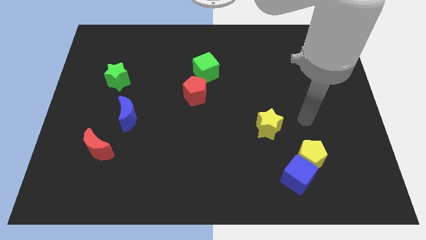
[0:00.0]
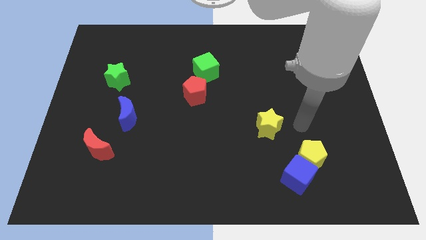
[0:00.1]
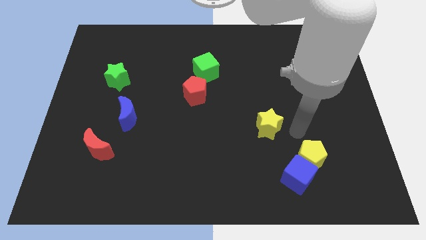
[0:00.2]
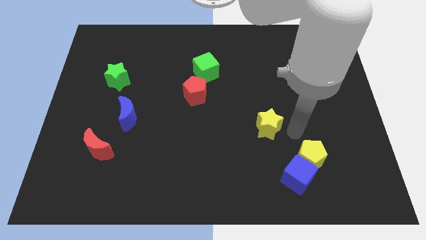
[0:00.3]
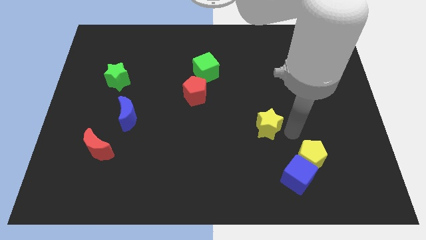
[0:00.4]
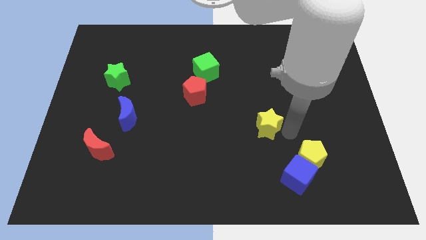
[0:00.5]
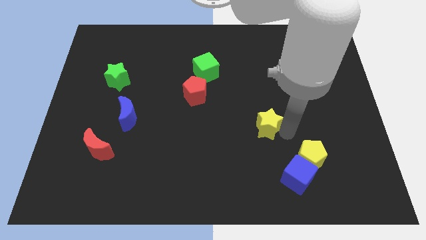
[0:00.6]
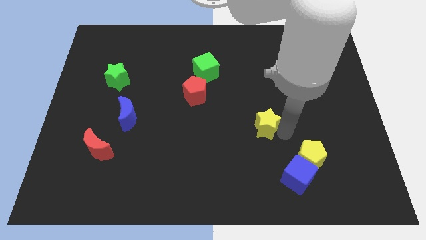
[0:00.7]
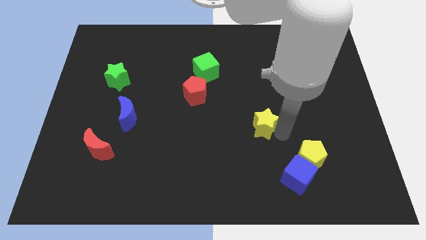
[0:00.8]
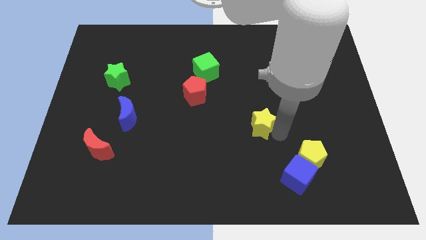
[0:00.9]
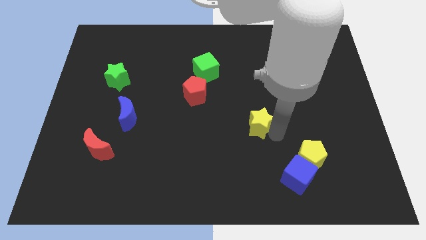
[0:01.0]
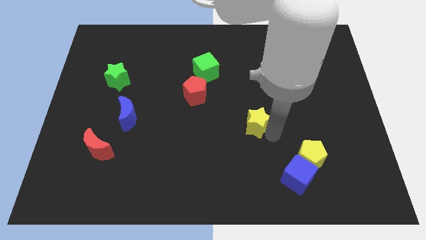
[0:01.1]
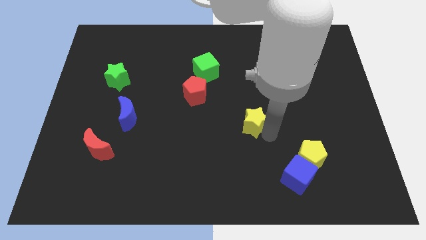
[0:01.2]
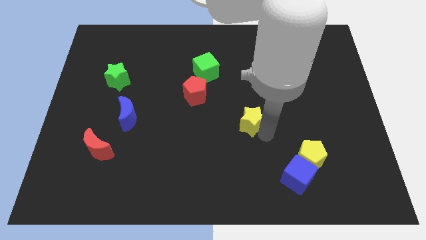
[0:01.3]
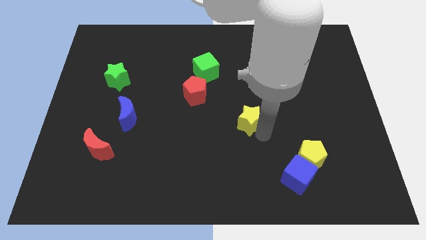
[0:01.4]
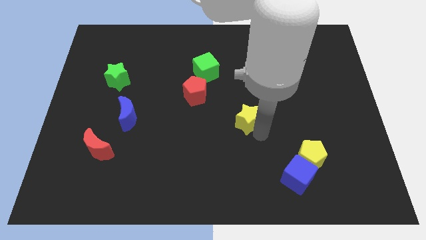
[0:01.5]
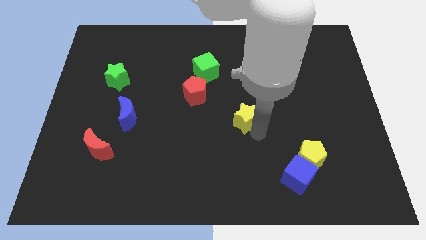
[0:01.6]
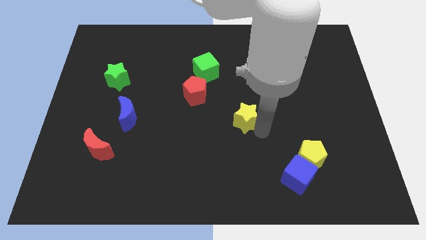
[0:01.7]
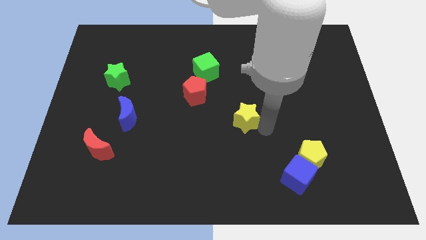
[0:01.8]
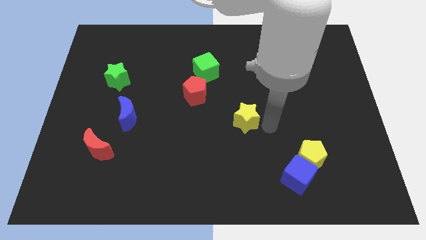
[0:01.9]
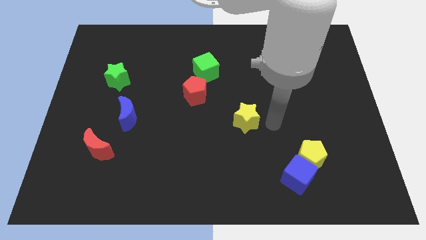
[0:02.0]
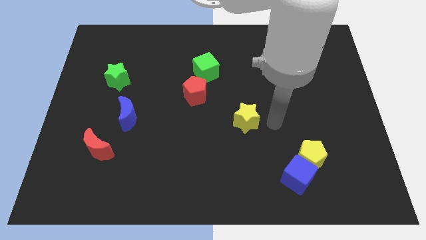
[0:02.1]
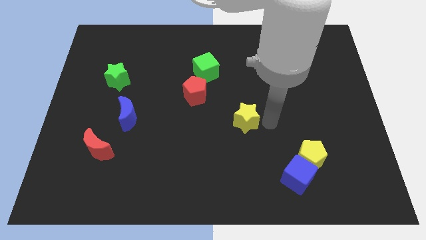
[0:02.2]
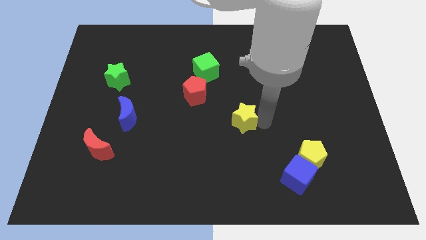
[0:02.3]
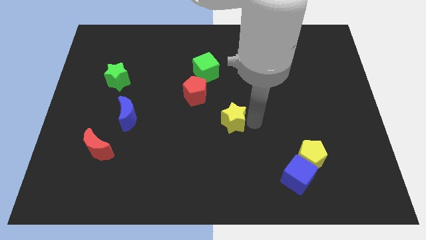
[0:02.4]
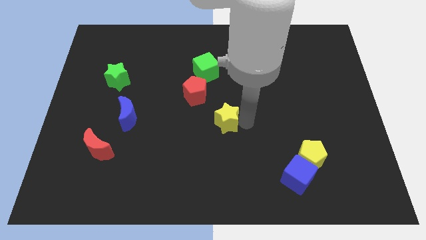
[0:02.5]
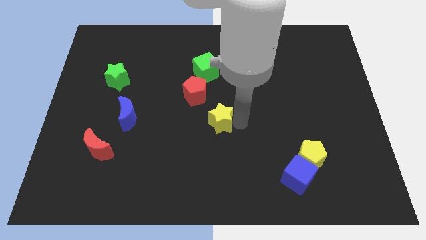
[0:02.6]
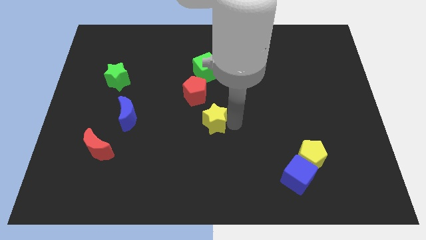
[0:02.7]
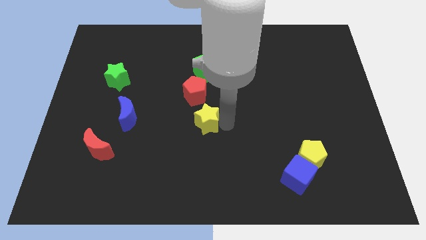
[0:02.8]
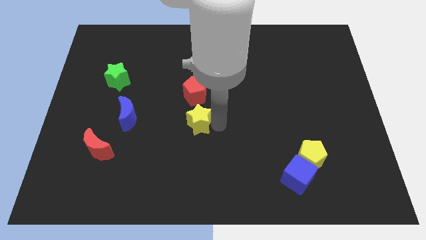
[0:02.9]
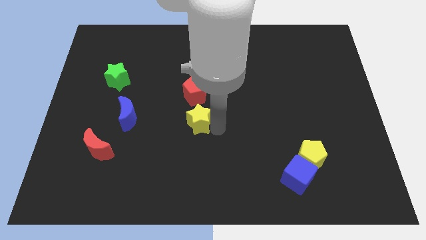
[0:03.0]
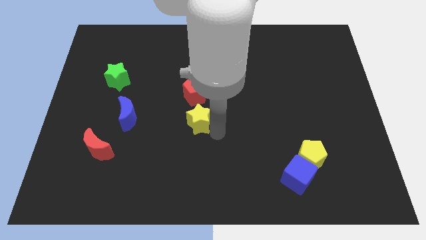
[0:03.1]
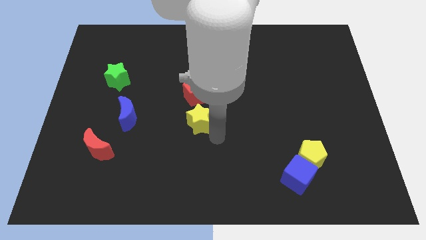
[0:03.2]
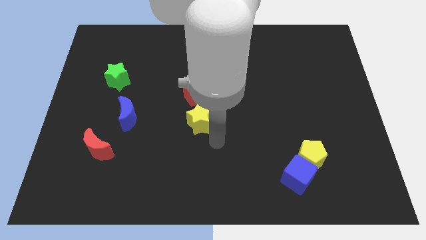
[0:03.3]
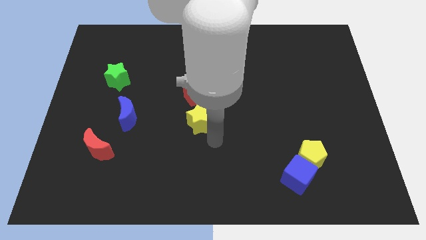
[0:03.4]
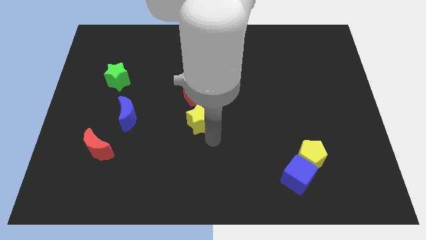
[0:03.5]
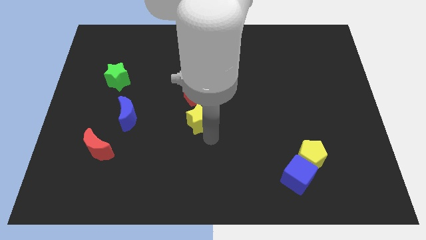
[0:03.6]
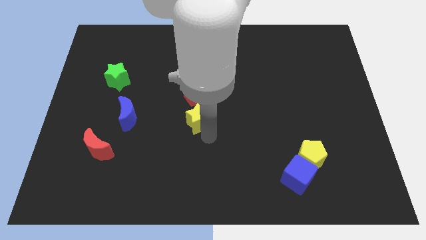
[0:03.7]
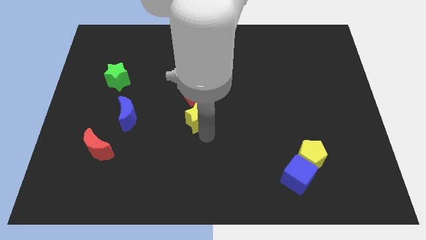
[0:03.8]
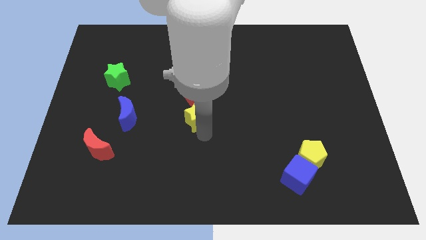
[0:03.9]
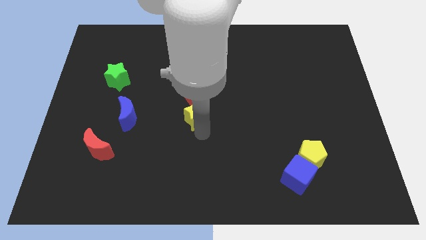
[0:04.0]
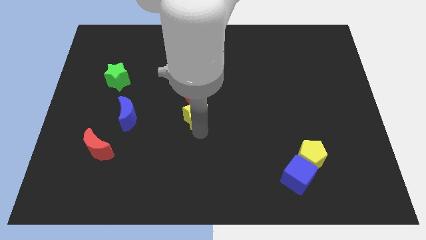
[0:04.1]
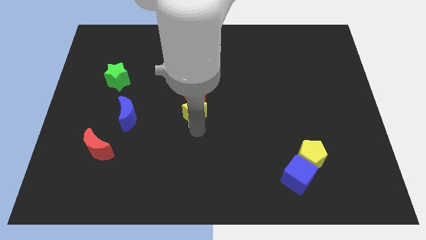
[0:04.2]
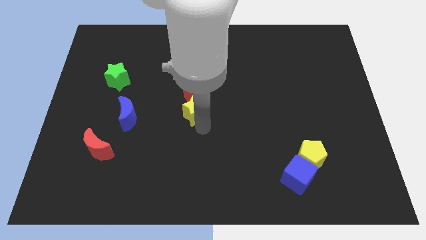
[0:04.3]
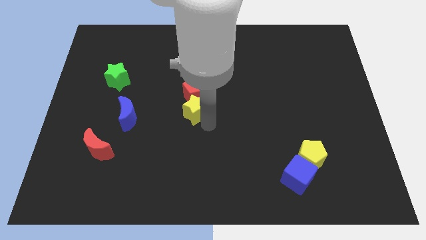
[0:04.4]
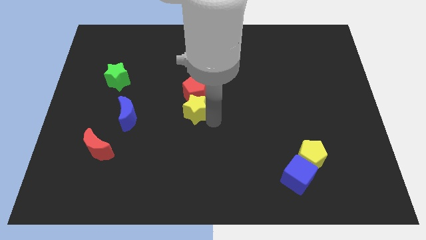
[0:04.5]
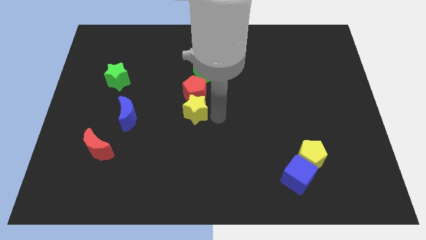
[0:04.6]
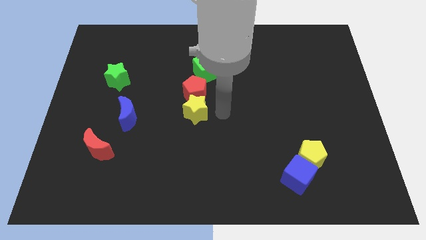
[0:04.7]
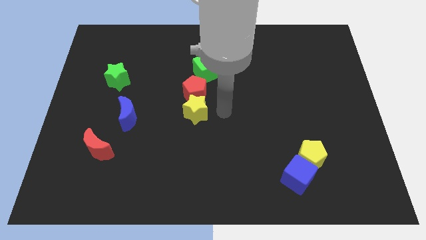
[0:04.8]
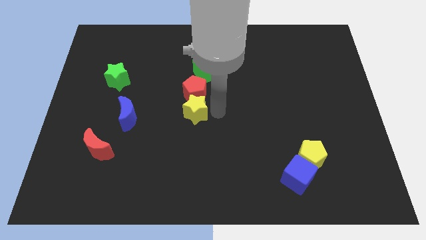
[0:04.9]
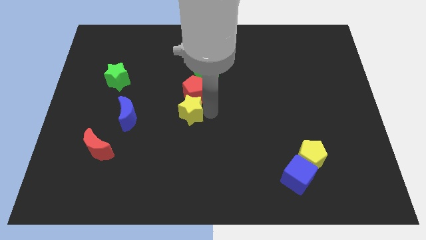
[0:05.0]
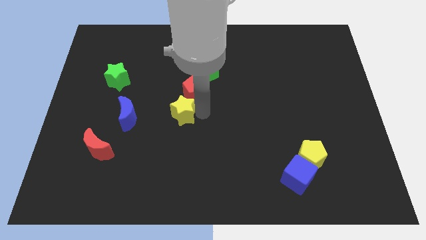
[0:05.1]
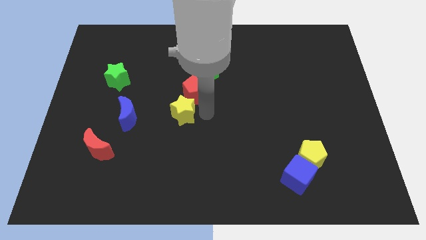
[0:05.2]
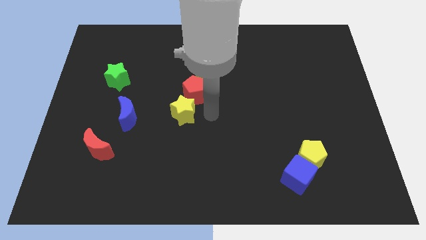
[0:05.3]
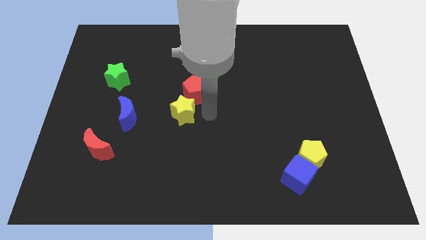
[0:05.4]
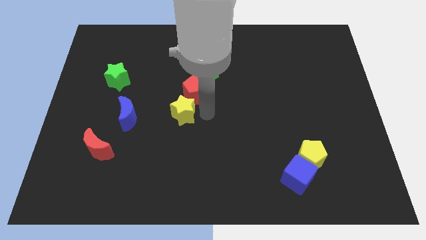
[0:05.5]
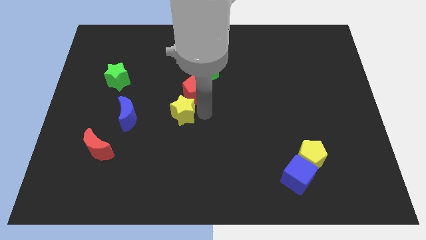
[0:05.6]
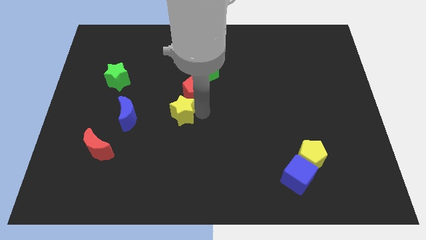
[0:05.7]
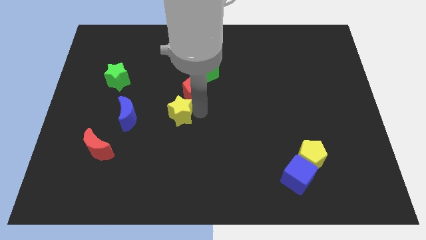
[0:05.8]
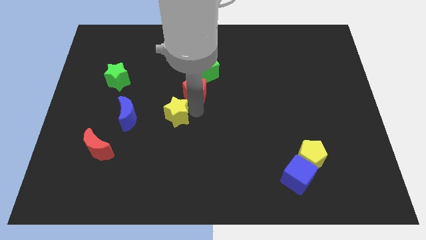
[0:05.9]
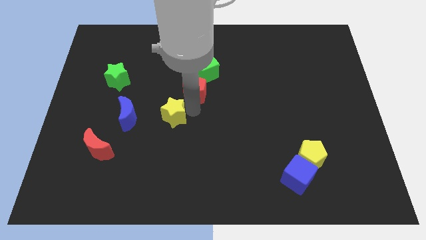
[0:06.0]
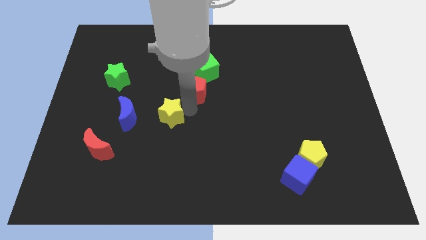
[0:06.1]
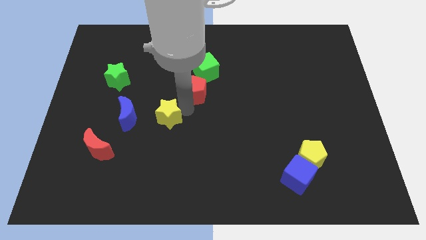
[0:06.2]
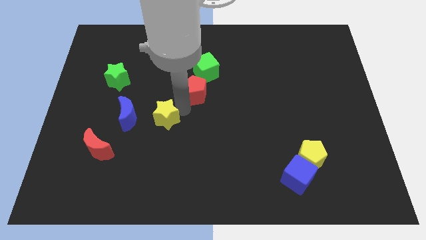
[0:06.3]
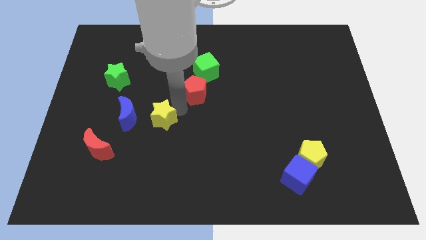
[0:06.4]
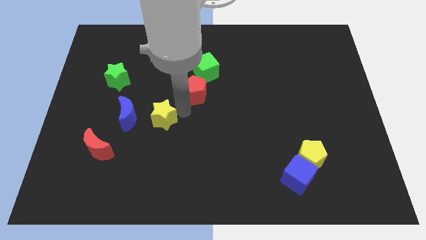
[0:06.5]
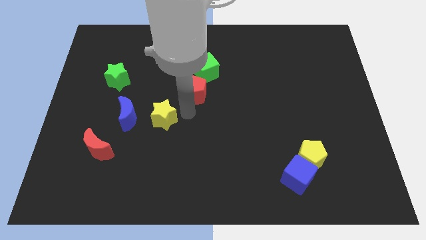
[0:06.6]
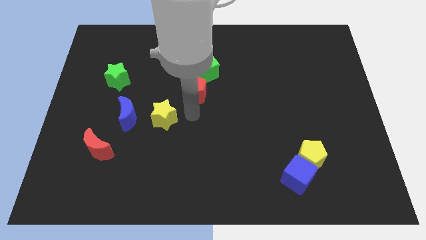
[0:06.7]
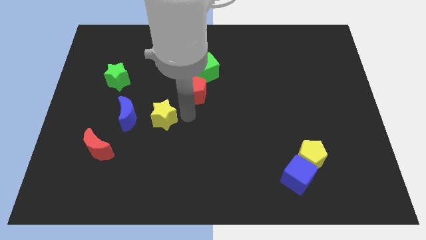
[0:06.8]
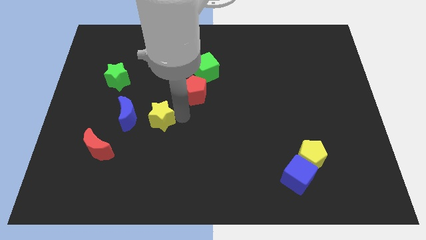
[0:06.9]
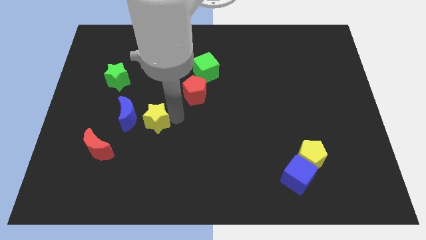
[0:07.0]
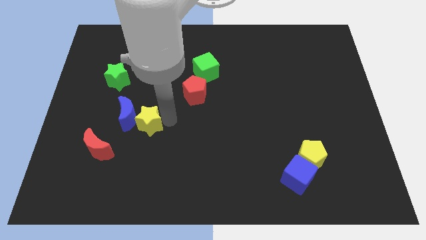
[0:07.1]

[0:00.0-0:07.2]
slide the yellow star next to the blue moon

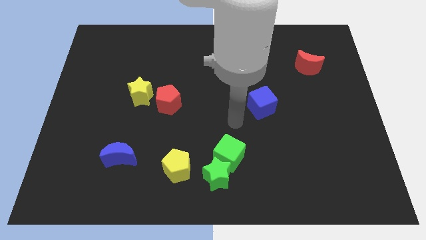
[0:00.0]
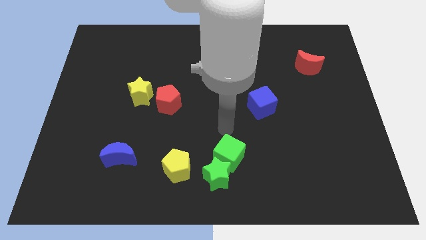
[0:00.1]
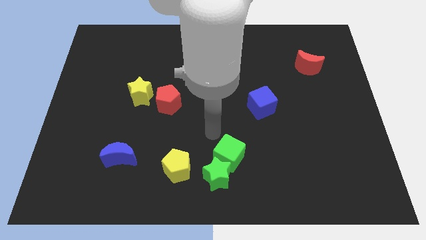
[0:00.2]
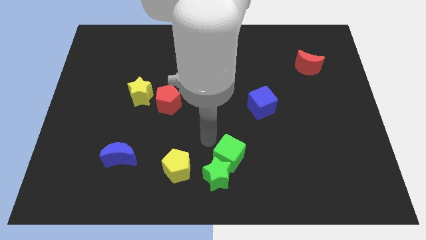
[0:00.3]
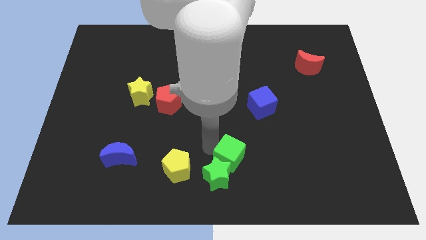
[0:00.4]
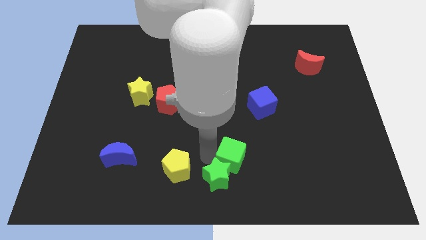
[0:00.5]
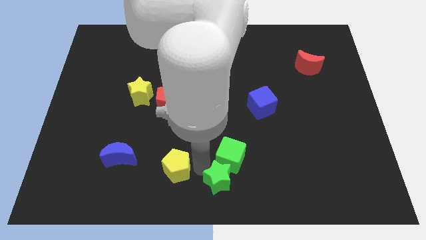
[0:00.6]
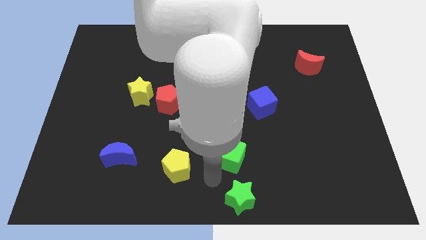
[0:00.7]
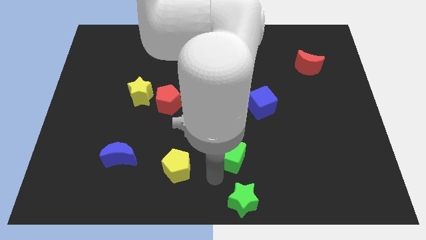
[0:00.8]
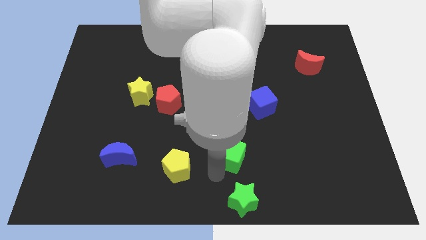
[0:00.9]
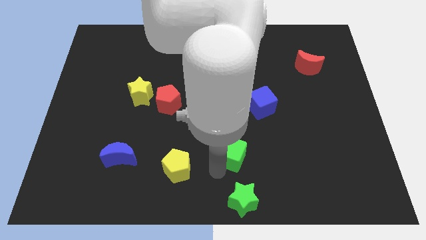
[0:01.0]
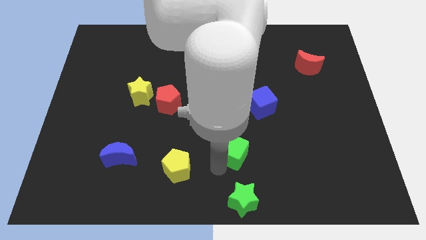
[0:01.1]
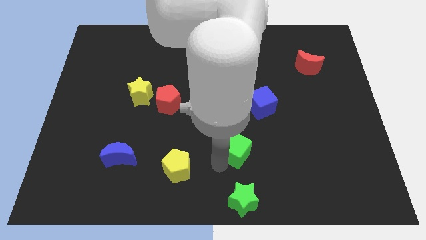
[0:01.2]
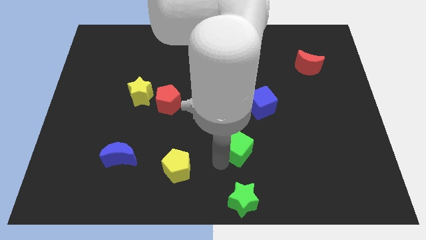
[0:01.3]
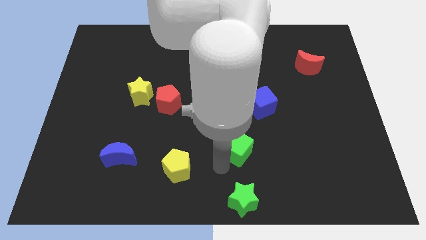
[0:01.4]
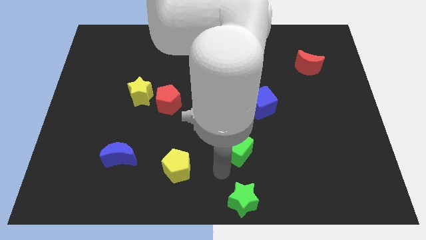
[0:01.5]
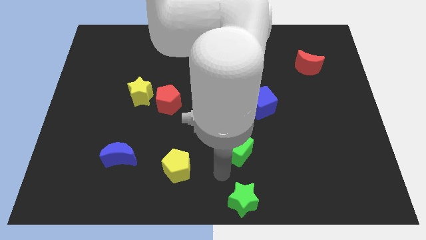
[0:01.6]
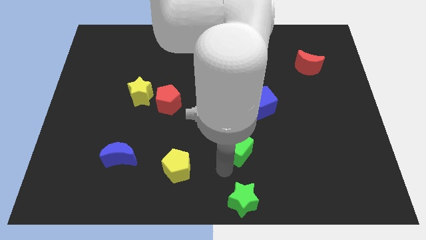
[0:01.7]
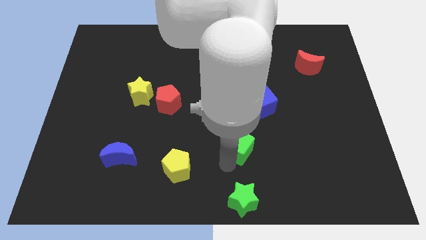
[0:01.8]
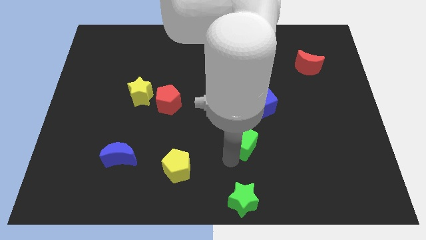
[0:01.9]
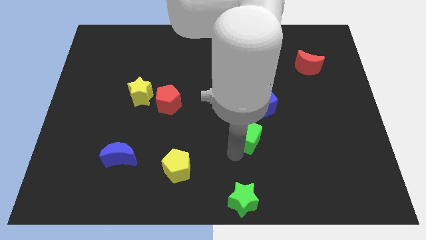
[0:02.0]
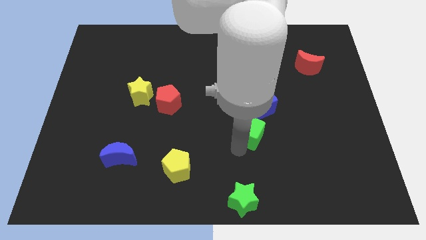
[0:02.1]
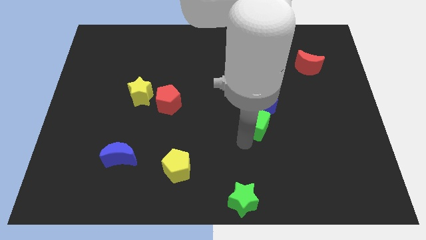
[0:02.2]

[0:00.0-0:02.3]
put the green cube to the blue cube
